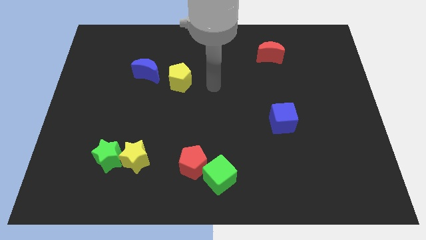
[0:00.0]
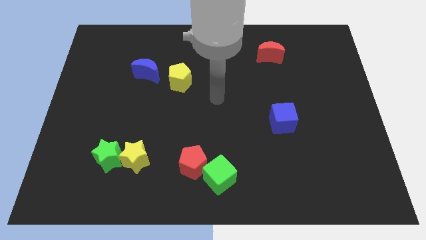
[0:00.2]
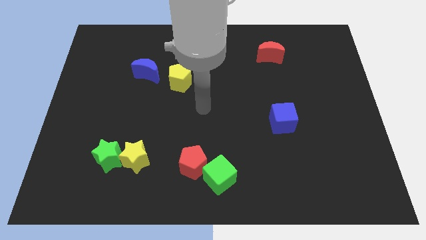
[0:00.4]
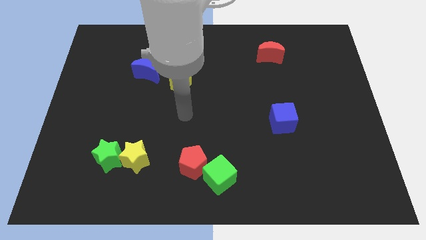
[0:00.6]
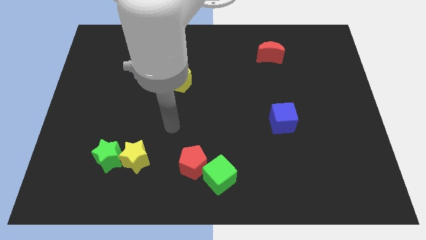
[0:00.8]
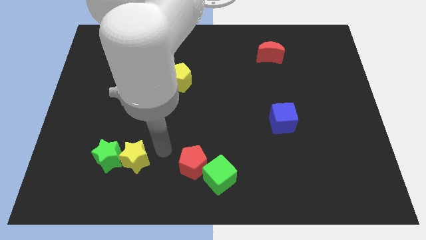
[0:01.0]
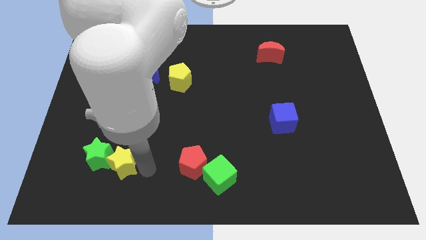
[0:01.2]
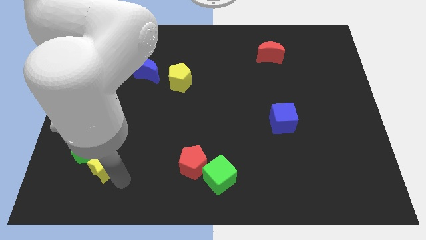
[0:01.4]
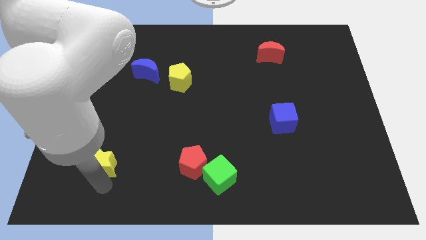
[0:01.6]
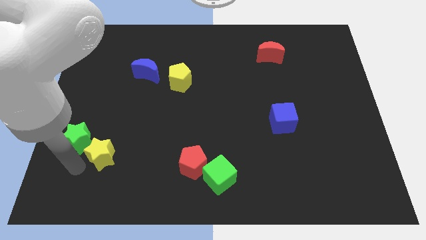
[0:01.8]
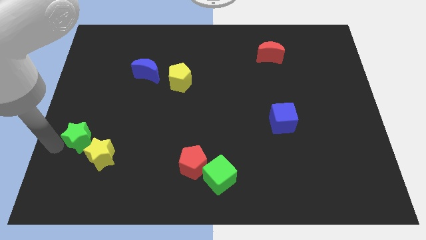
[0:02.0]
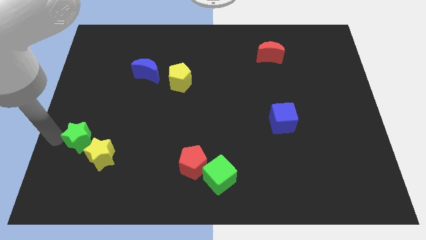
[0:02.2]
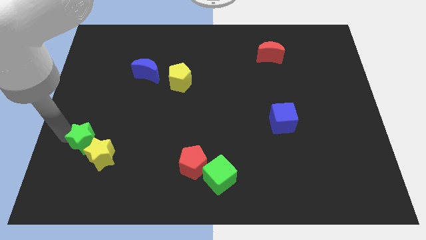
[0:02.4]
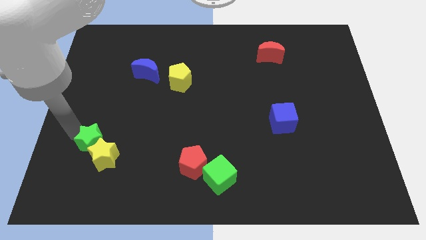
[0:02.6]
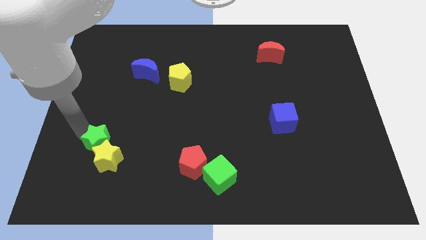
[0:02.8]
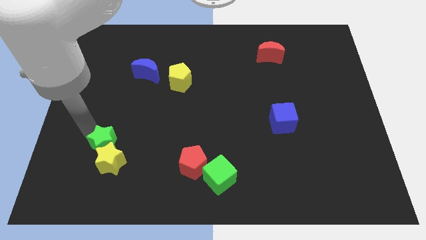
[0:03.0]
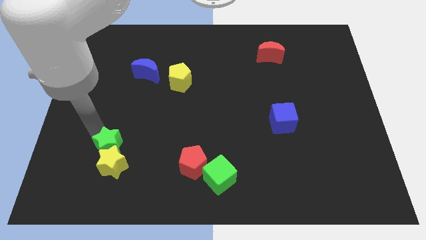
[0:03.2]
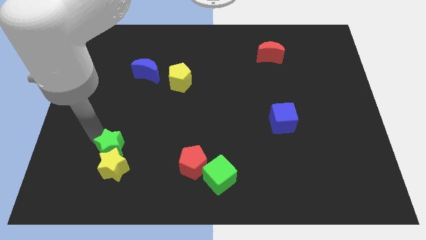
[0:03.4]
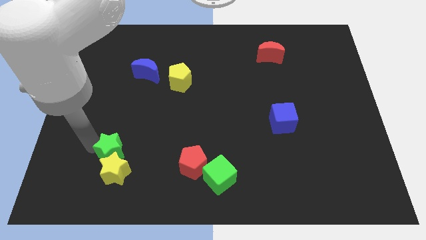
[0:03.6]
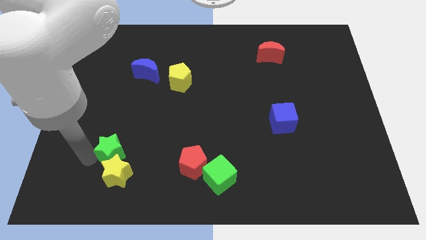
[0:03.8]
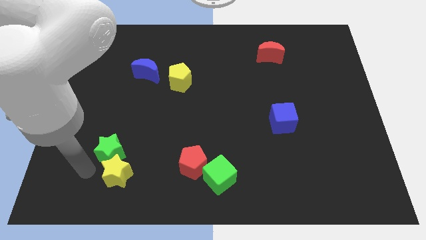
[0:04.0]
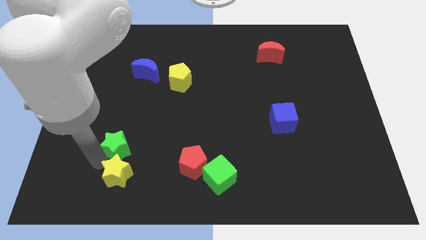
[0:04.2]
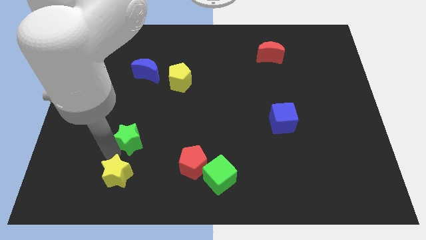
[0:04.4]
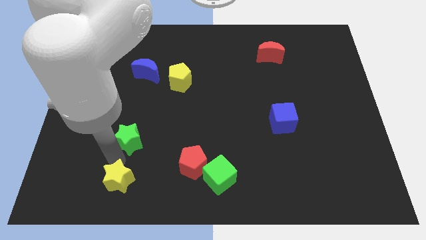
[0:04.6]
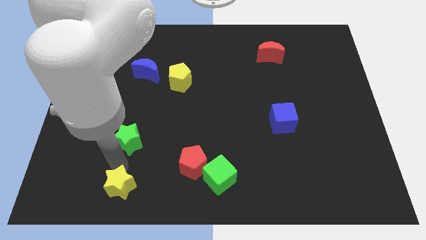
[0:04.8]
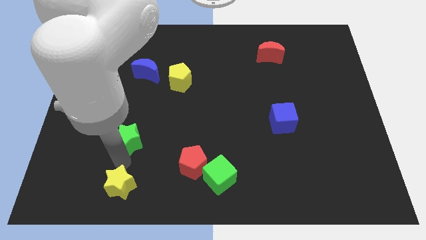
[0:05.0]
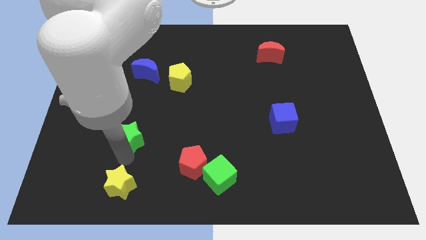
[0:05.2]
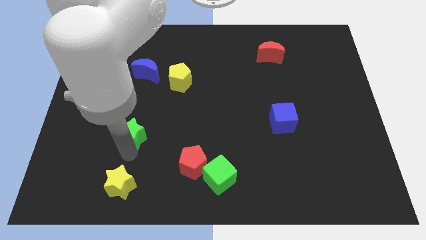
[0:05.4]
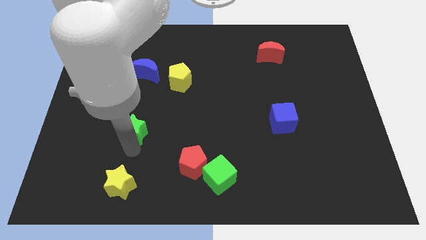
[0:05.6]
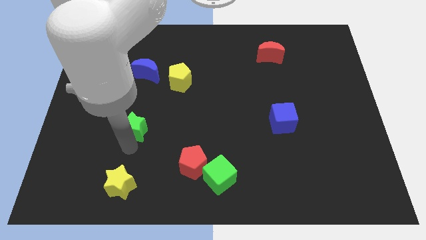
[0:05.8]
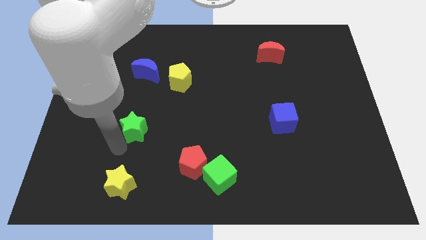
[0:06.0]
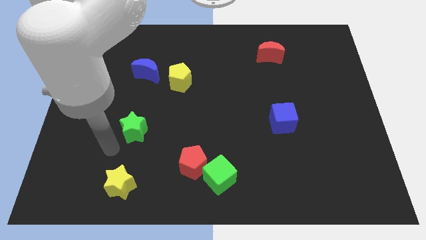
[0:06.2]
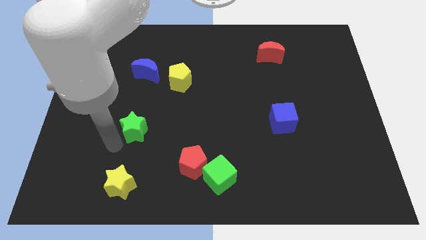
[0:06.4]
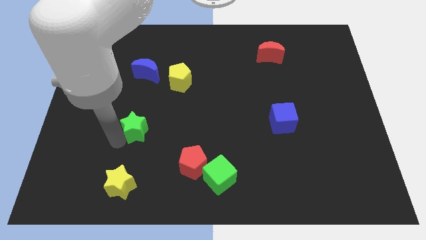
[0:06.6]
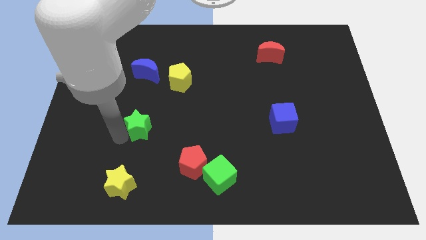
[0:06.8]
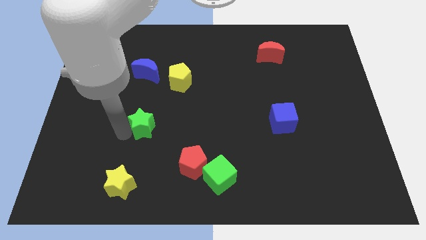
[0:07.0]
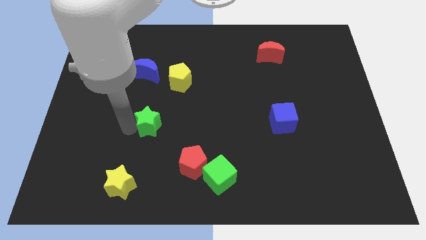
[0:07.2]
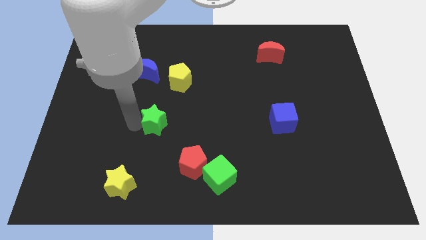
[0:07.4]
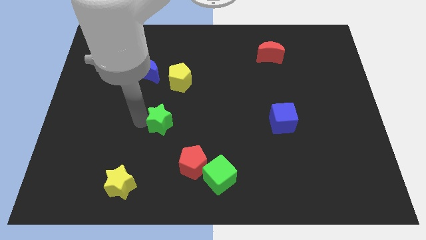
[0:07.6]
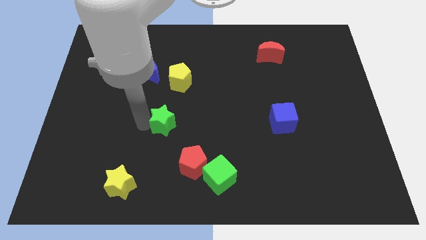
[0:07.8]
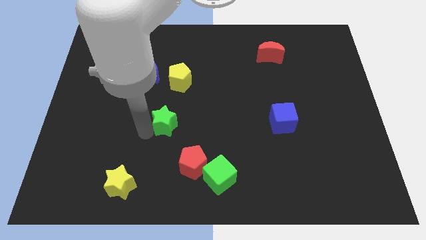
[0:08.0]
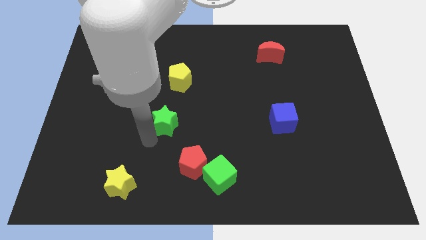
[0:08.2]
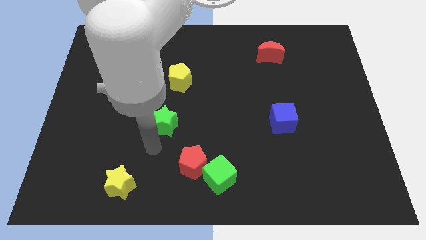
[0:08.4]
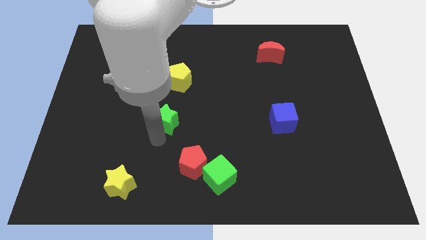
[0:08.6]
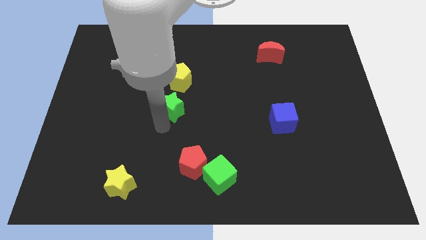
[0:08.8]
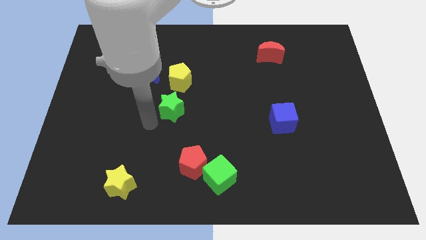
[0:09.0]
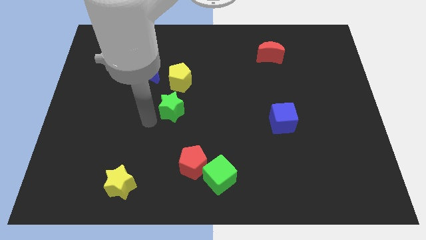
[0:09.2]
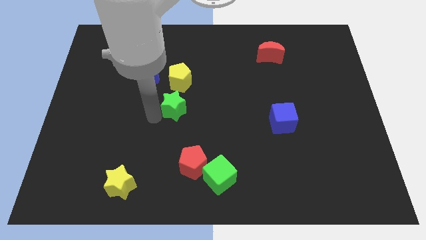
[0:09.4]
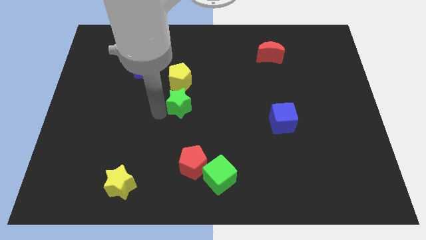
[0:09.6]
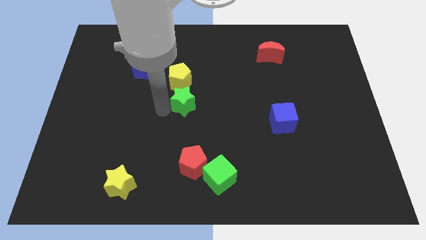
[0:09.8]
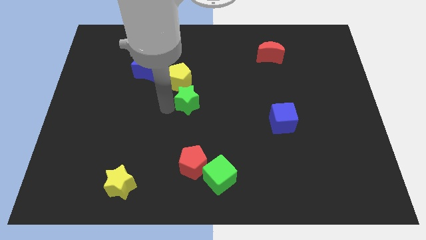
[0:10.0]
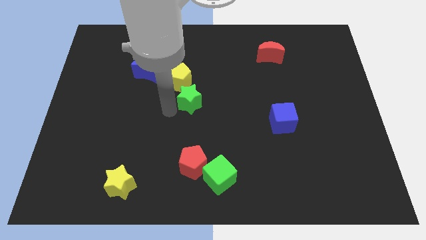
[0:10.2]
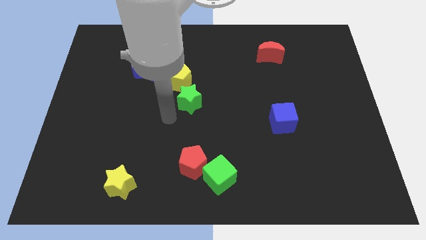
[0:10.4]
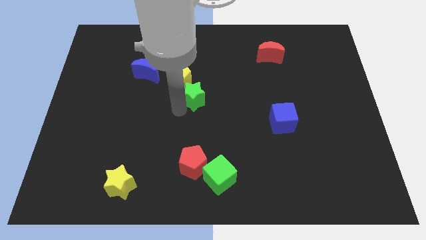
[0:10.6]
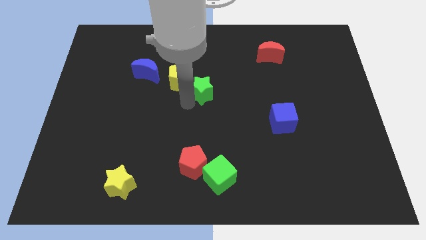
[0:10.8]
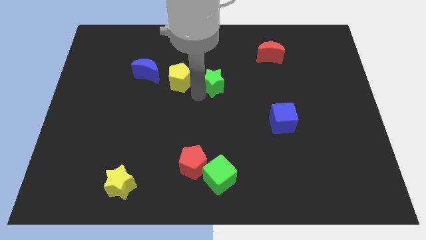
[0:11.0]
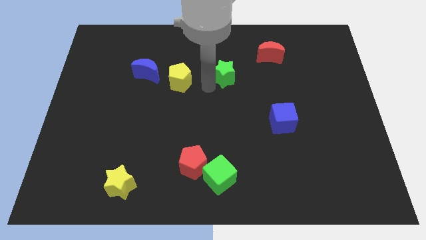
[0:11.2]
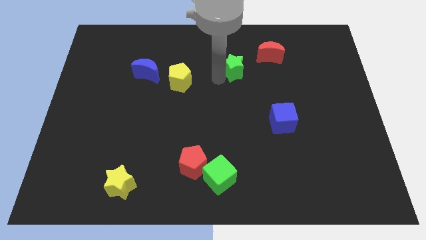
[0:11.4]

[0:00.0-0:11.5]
move the green star to the bottom left of the red moon
